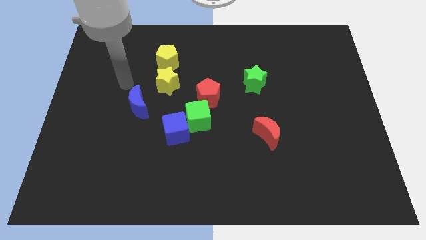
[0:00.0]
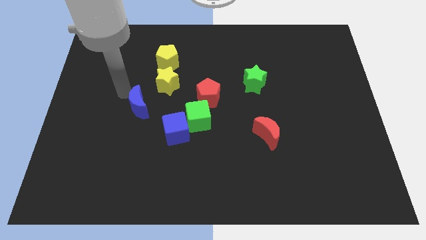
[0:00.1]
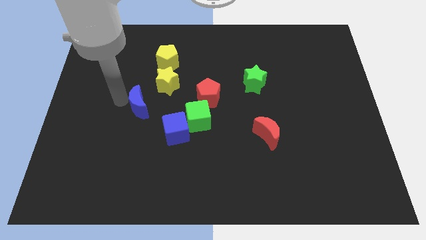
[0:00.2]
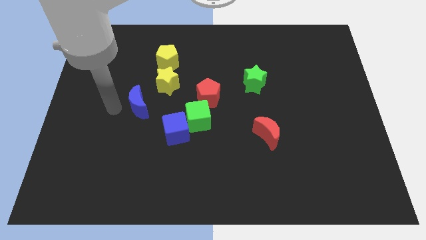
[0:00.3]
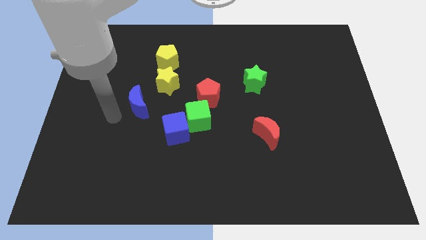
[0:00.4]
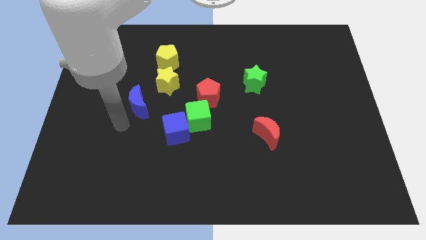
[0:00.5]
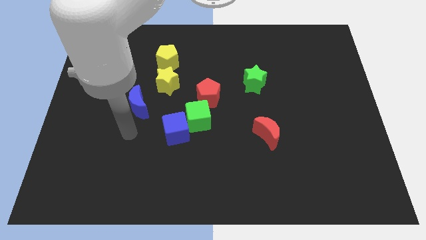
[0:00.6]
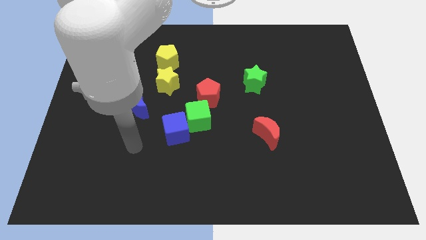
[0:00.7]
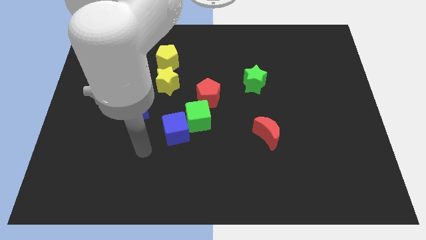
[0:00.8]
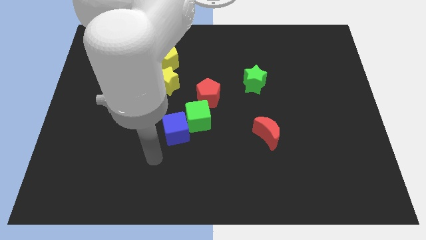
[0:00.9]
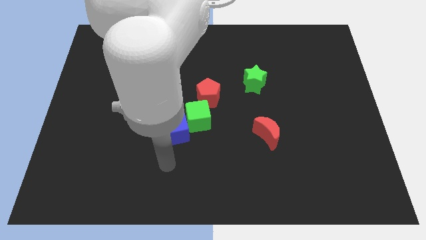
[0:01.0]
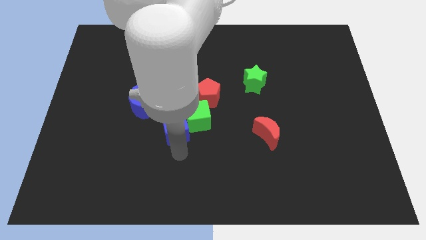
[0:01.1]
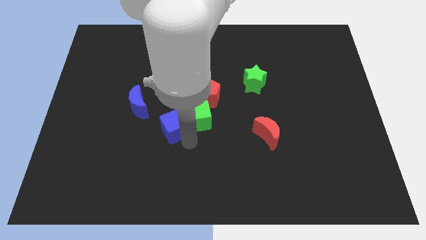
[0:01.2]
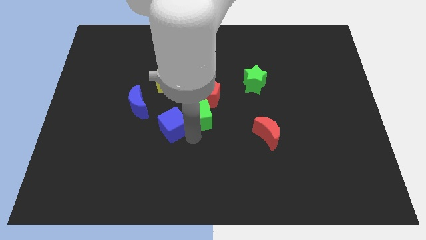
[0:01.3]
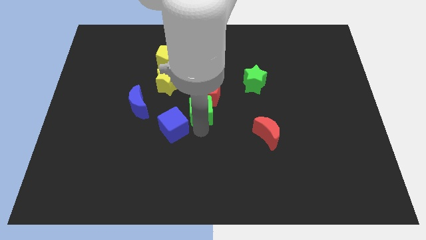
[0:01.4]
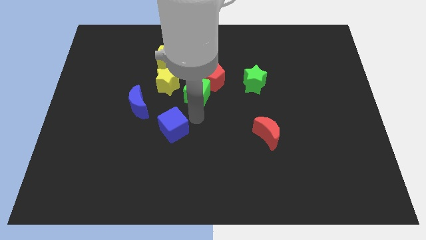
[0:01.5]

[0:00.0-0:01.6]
move the blue cube away from the green cube

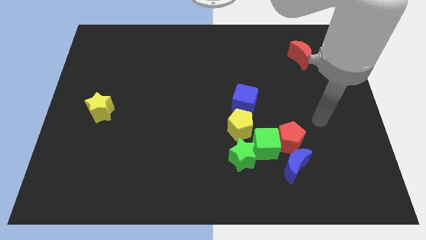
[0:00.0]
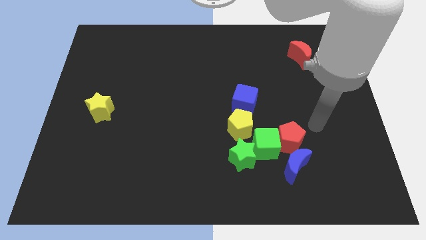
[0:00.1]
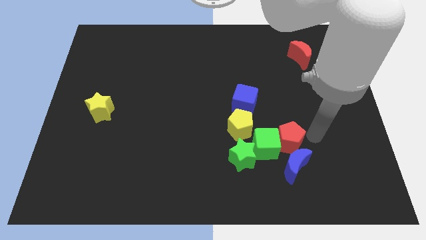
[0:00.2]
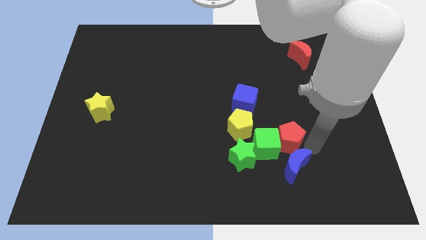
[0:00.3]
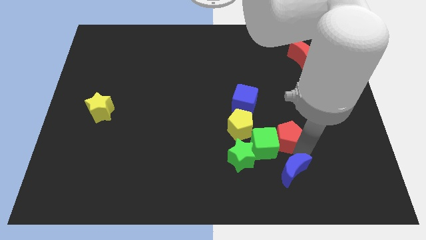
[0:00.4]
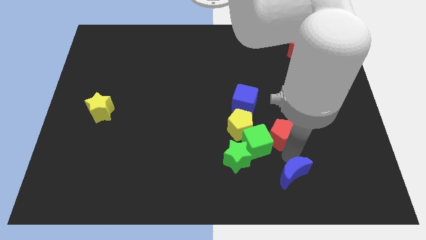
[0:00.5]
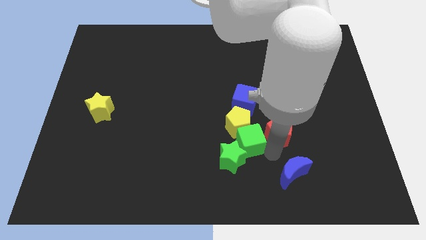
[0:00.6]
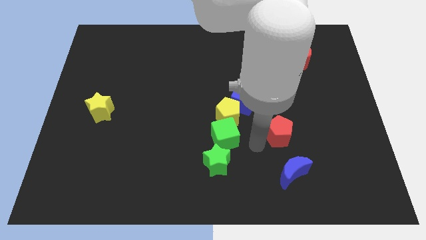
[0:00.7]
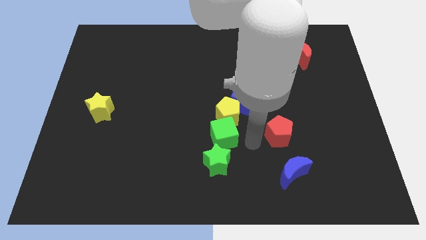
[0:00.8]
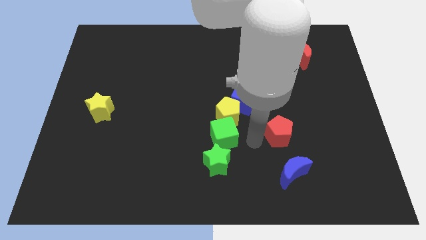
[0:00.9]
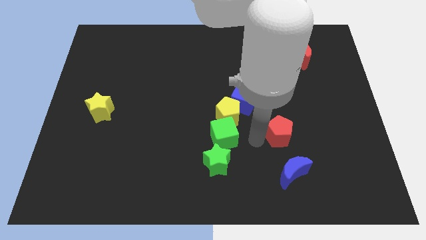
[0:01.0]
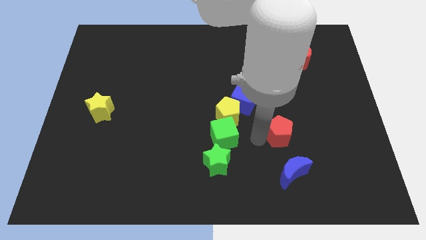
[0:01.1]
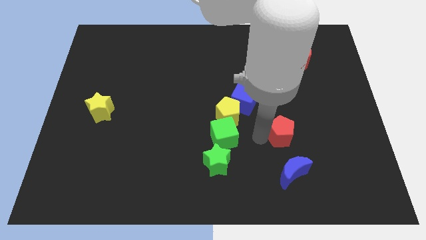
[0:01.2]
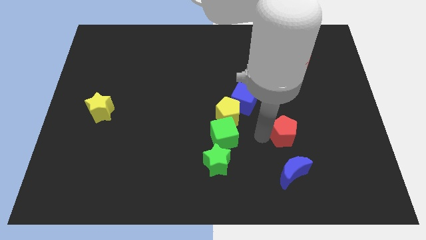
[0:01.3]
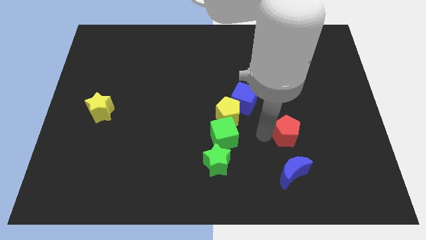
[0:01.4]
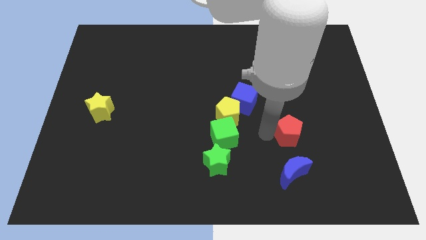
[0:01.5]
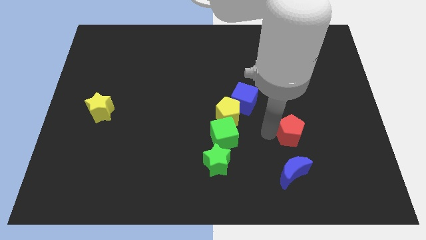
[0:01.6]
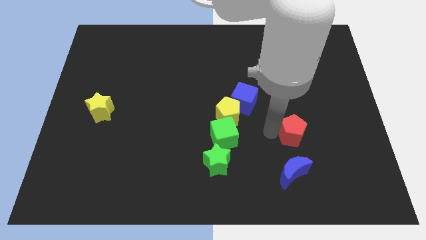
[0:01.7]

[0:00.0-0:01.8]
pull the red pentagon apart from the green cube and blue moon

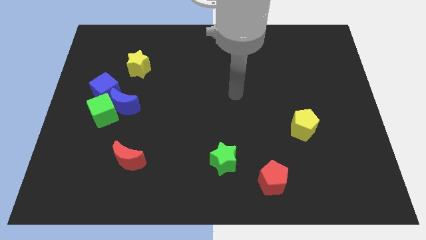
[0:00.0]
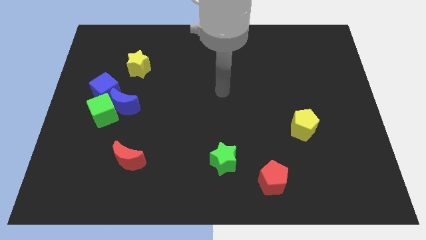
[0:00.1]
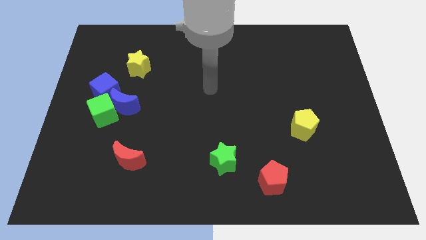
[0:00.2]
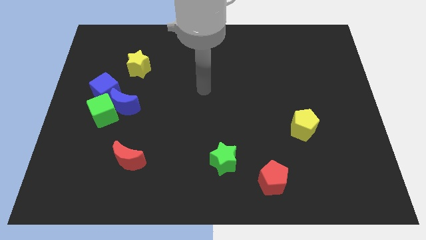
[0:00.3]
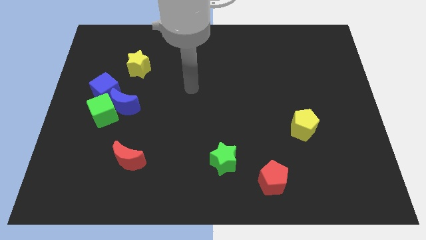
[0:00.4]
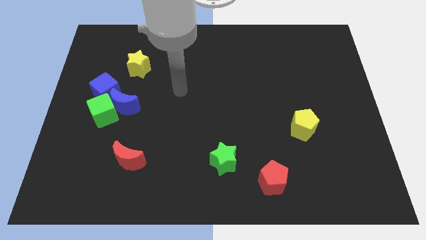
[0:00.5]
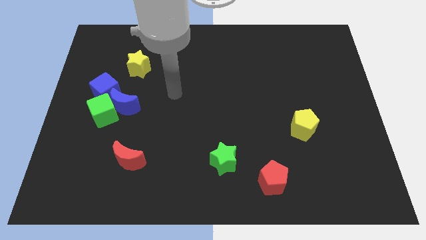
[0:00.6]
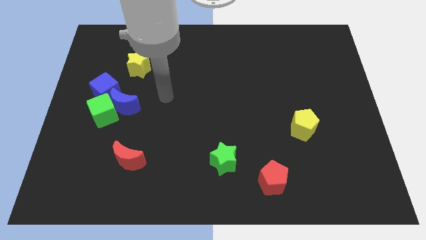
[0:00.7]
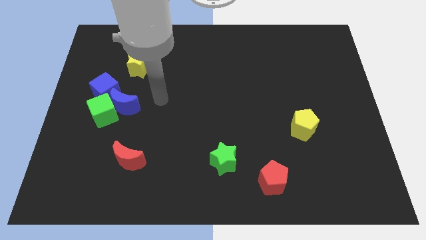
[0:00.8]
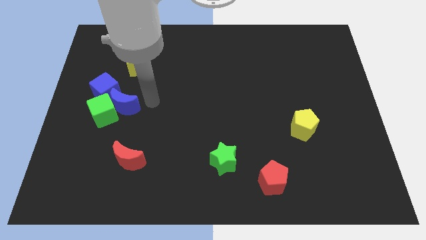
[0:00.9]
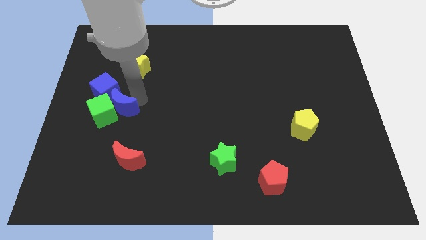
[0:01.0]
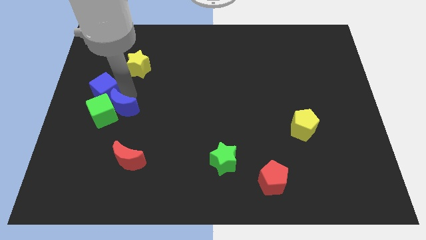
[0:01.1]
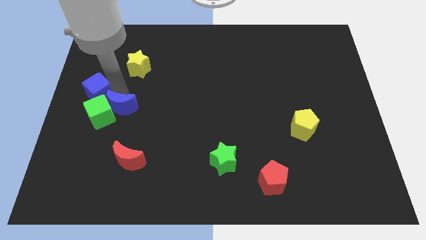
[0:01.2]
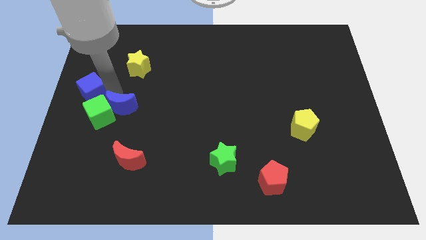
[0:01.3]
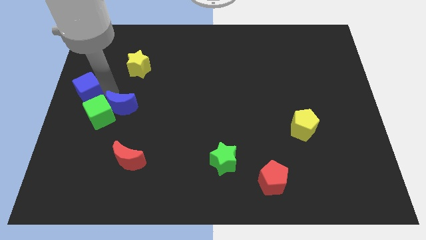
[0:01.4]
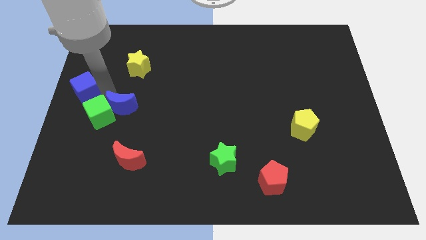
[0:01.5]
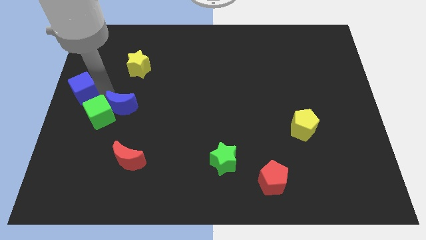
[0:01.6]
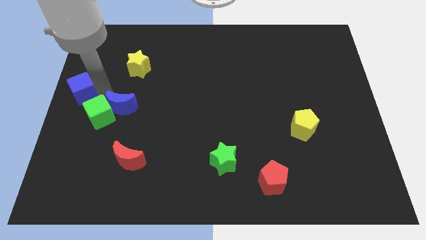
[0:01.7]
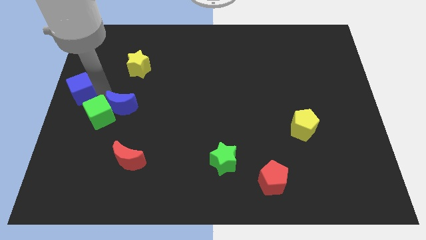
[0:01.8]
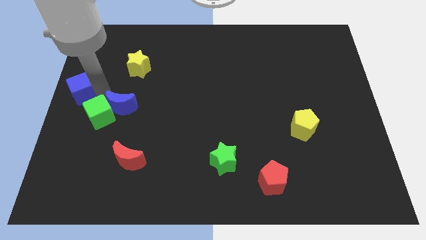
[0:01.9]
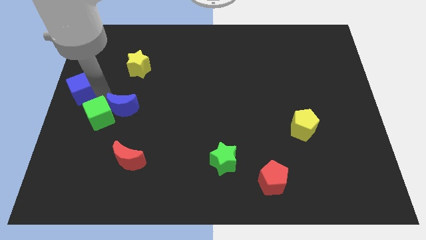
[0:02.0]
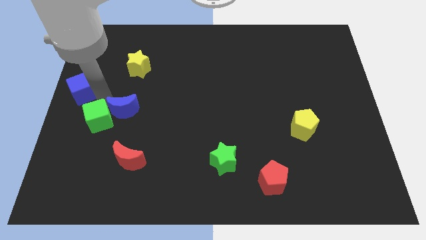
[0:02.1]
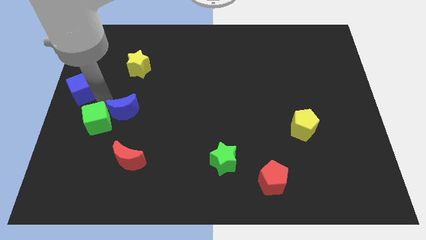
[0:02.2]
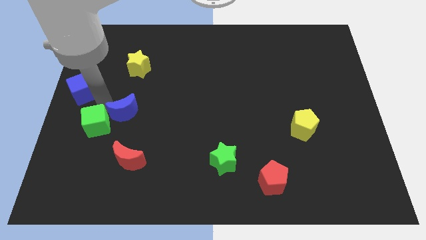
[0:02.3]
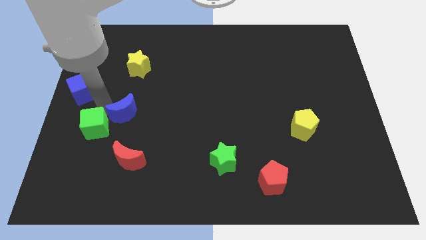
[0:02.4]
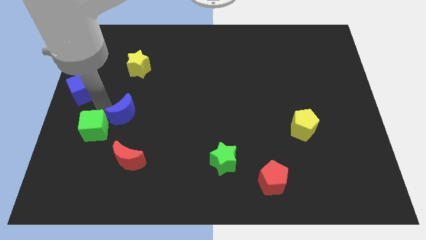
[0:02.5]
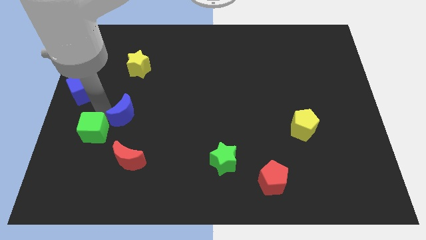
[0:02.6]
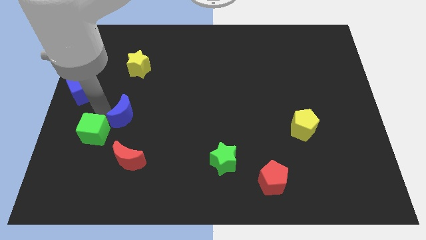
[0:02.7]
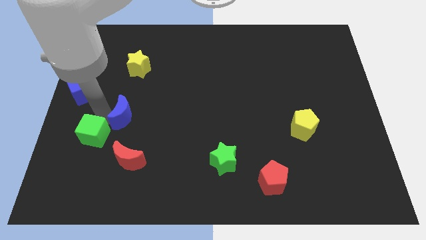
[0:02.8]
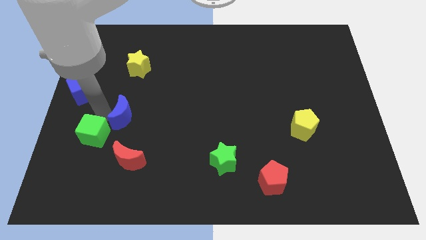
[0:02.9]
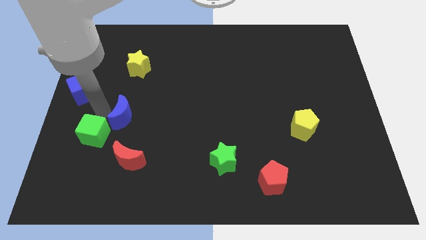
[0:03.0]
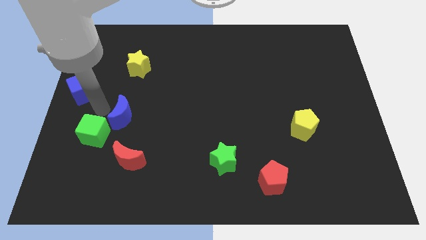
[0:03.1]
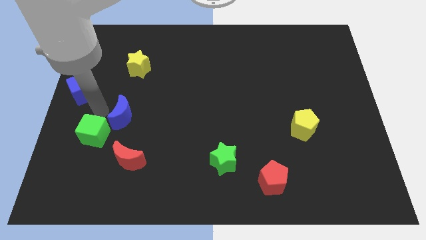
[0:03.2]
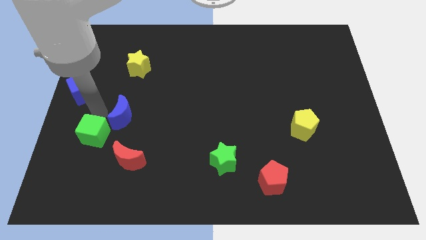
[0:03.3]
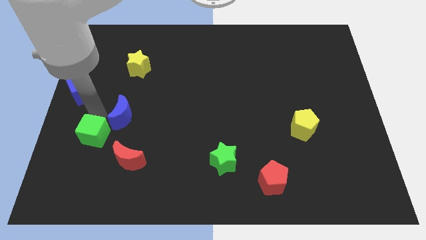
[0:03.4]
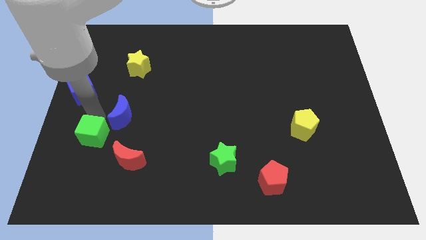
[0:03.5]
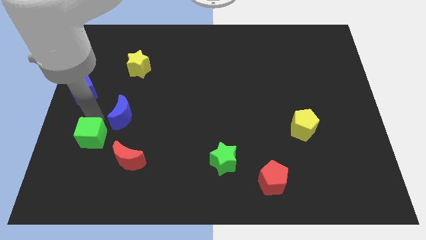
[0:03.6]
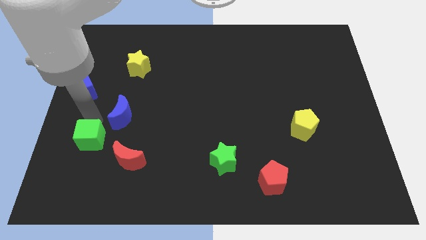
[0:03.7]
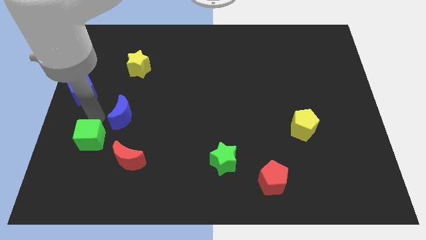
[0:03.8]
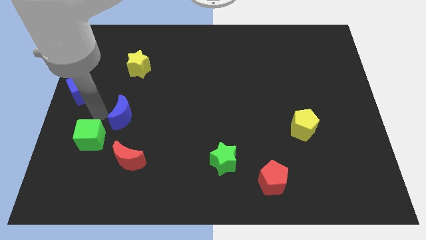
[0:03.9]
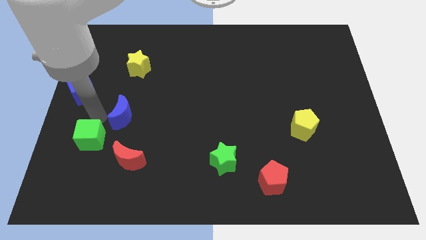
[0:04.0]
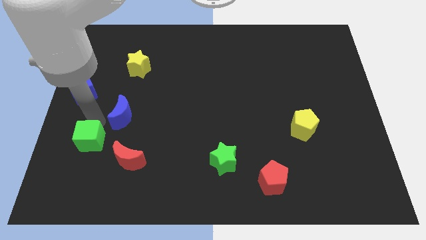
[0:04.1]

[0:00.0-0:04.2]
separate the green cube from the blue moon and blue cube

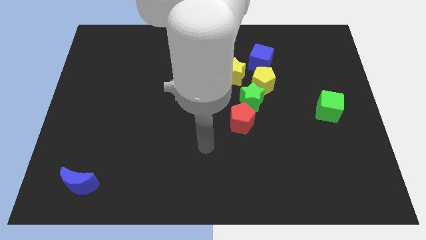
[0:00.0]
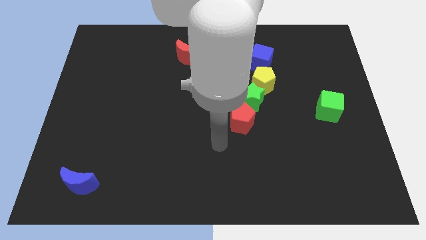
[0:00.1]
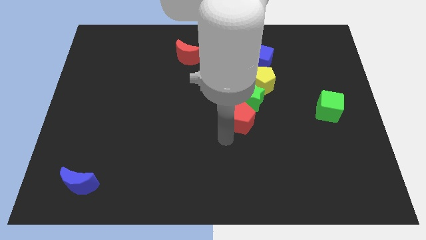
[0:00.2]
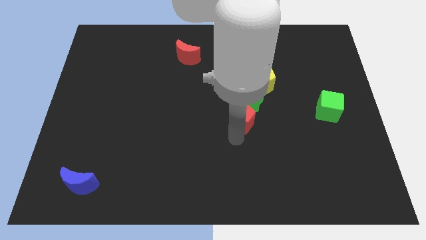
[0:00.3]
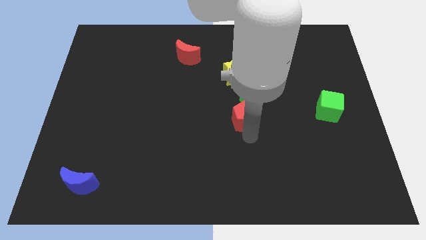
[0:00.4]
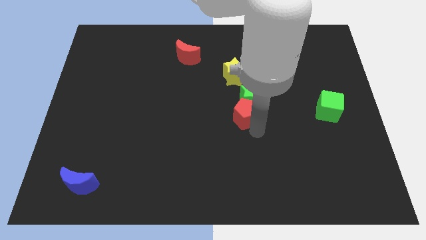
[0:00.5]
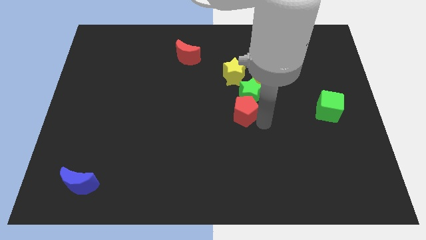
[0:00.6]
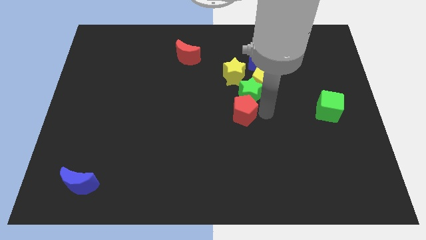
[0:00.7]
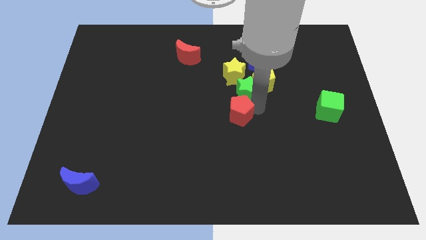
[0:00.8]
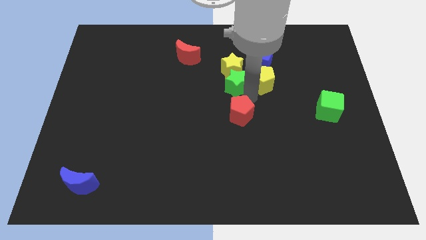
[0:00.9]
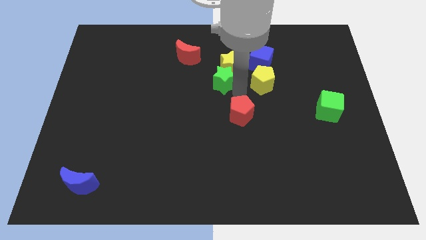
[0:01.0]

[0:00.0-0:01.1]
pull the red pentagon apart from the green star

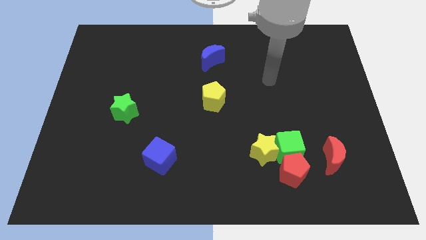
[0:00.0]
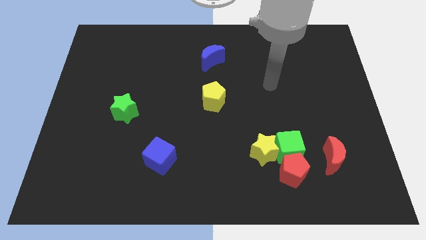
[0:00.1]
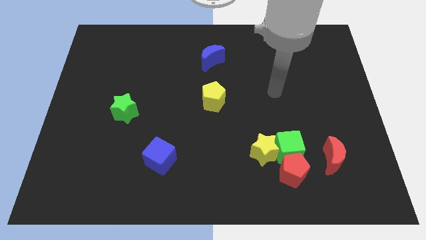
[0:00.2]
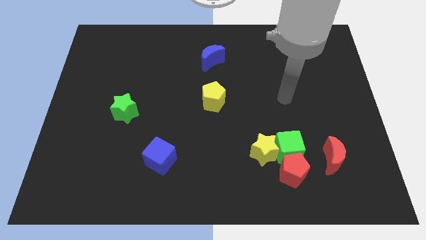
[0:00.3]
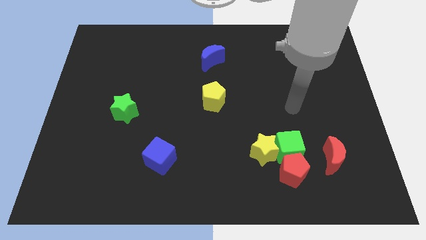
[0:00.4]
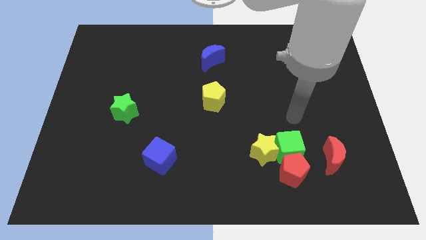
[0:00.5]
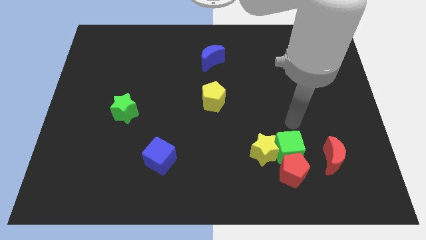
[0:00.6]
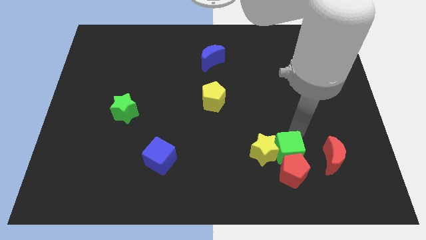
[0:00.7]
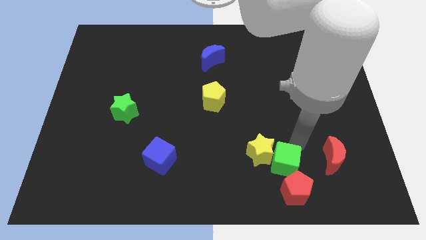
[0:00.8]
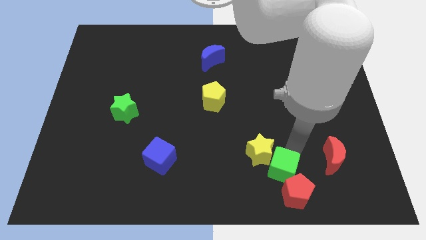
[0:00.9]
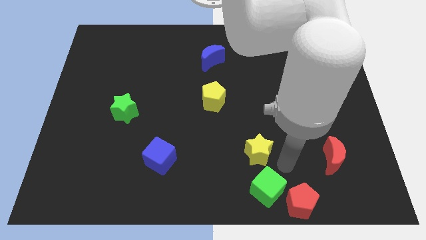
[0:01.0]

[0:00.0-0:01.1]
pull the yellow star apart from the green cube and red pentagon
